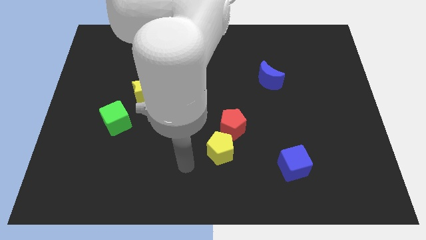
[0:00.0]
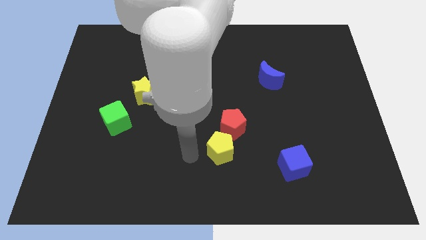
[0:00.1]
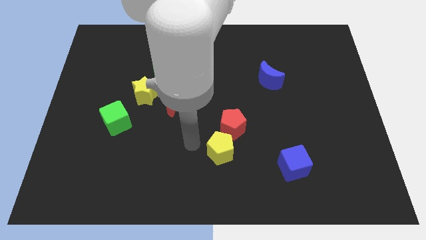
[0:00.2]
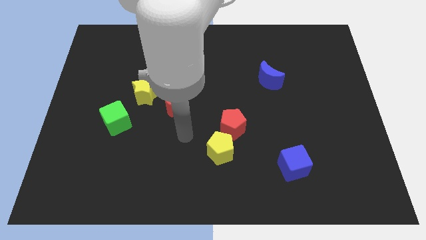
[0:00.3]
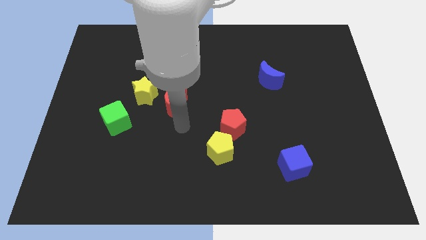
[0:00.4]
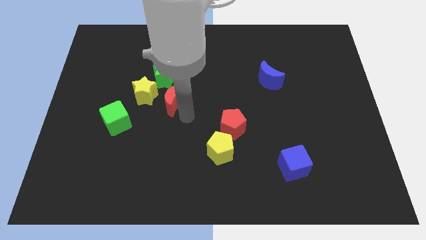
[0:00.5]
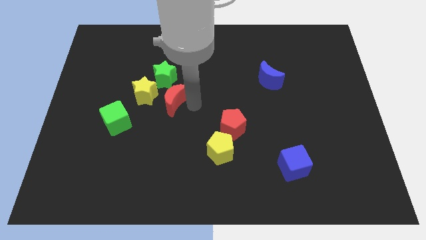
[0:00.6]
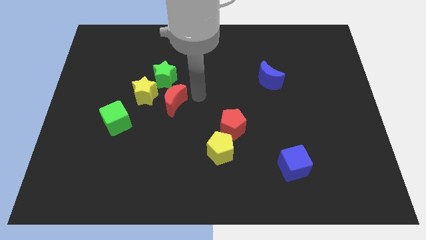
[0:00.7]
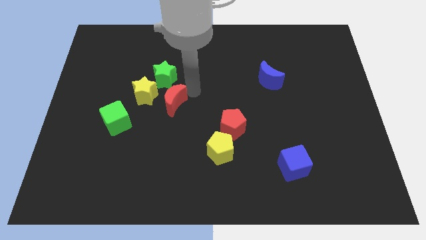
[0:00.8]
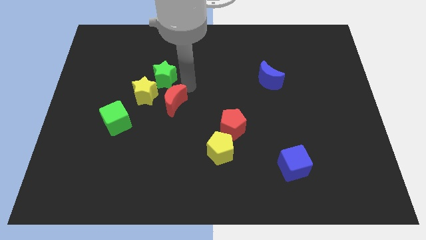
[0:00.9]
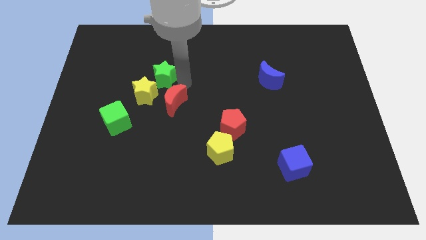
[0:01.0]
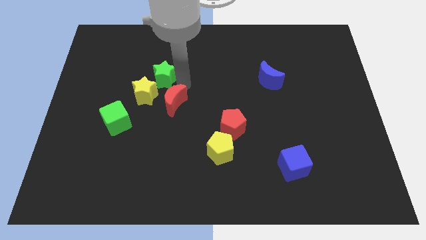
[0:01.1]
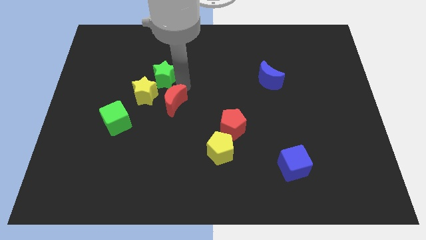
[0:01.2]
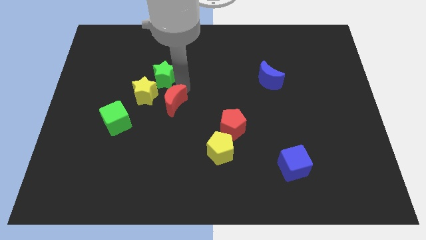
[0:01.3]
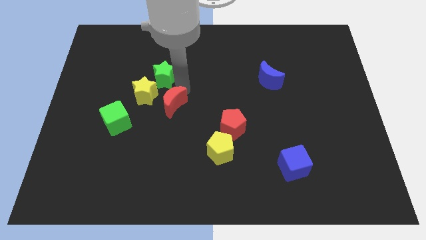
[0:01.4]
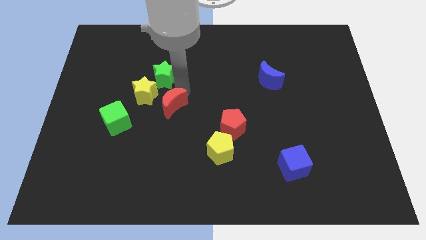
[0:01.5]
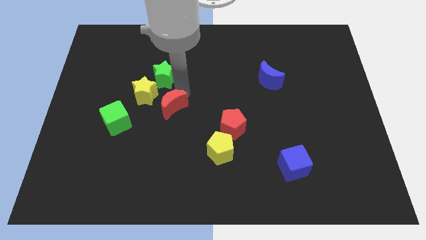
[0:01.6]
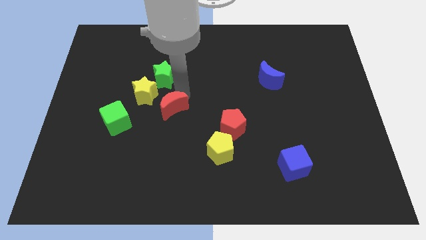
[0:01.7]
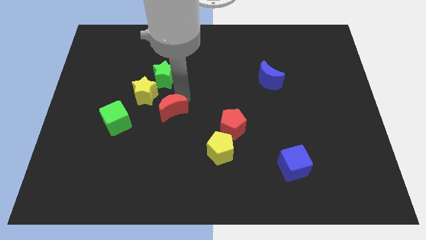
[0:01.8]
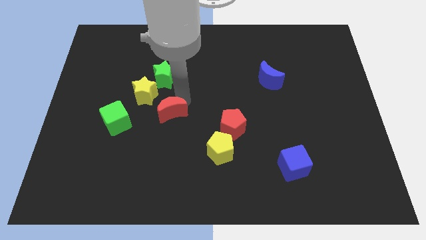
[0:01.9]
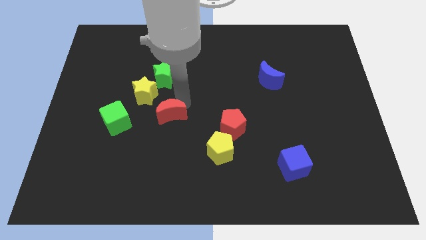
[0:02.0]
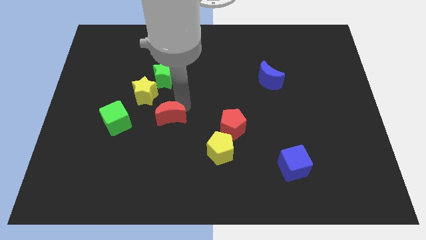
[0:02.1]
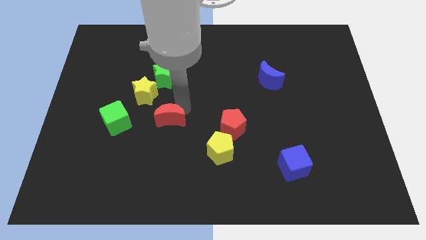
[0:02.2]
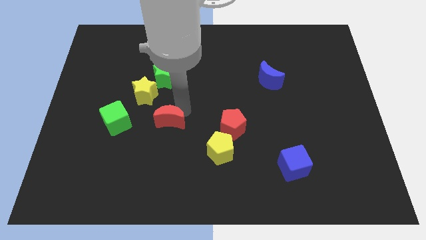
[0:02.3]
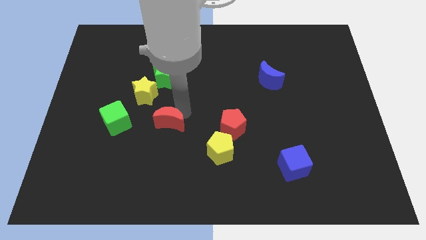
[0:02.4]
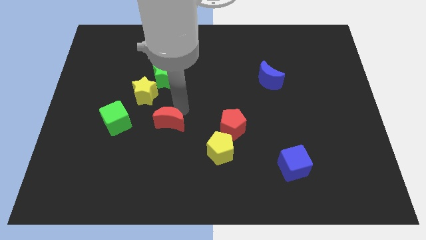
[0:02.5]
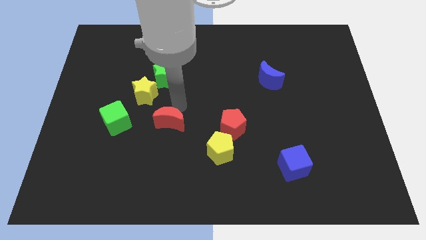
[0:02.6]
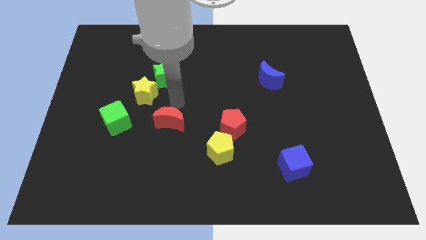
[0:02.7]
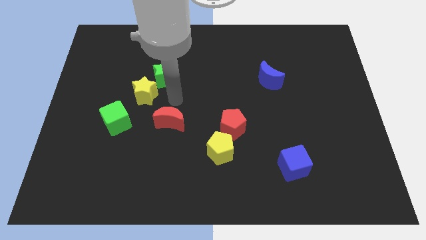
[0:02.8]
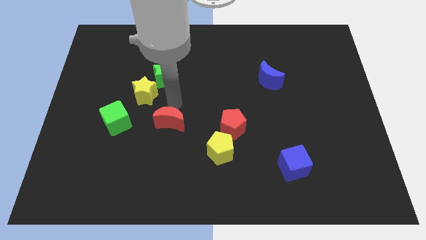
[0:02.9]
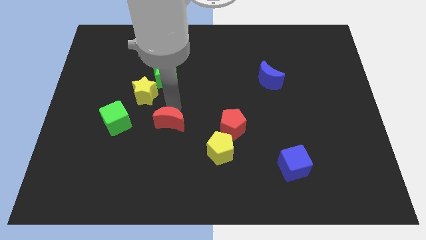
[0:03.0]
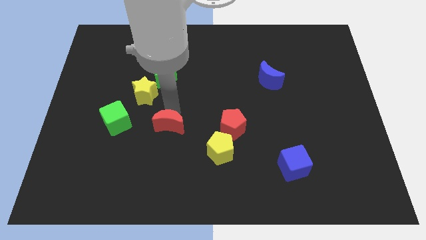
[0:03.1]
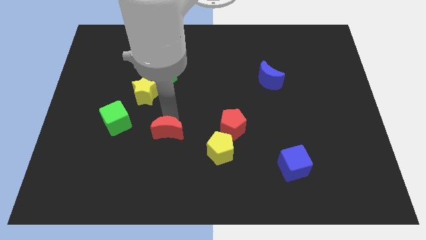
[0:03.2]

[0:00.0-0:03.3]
move the red moon downwards a bit

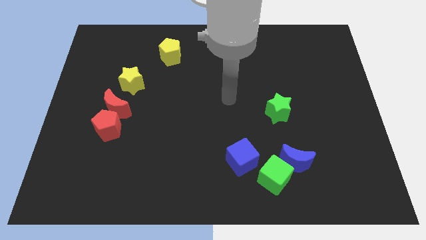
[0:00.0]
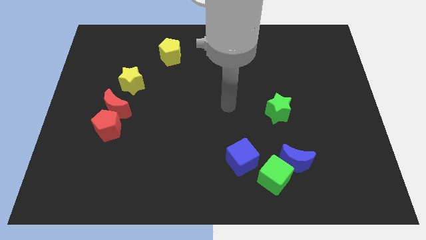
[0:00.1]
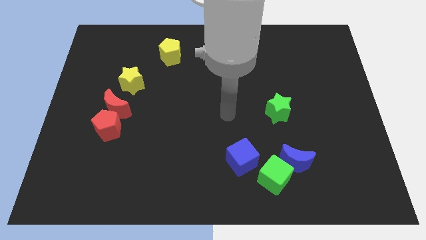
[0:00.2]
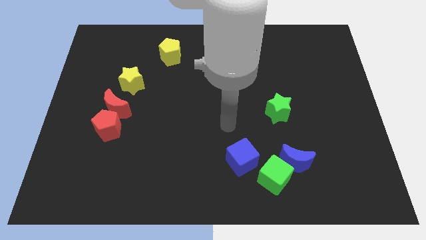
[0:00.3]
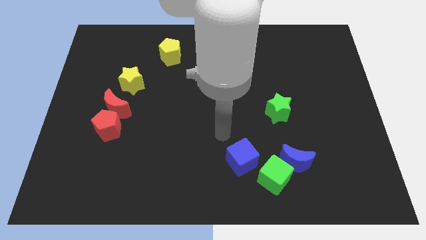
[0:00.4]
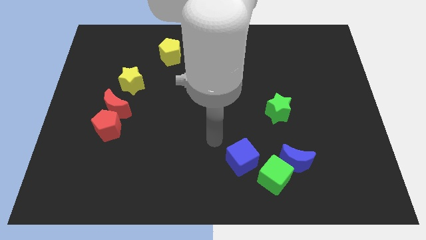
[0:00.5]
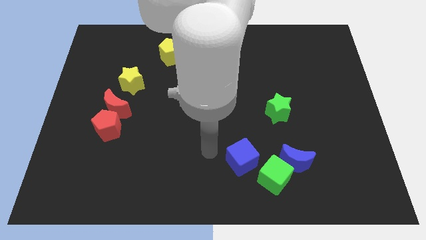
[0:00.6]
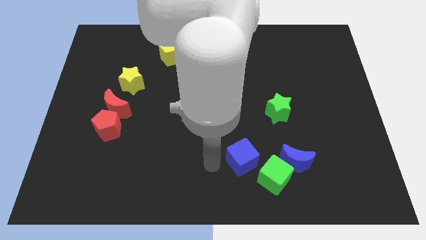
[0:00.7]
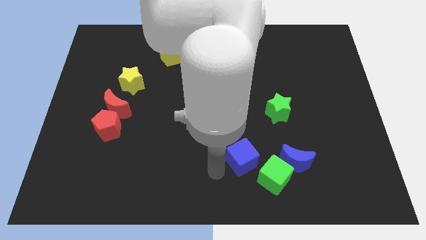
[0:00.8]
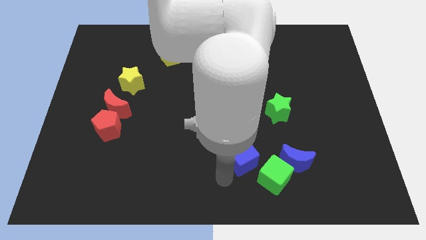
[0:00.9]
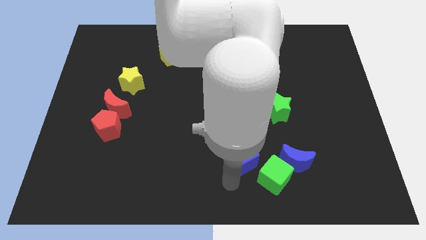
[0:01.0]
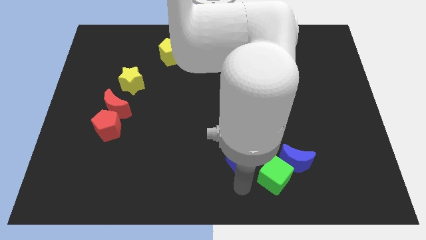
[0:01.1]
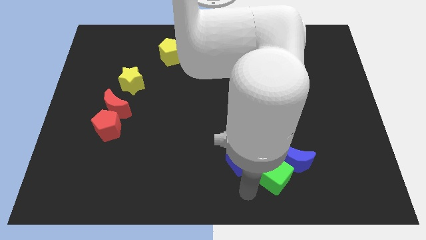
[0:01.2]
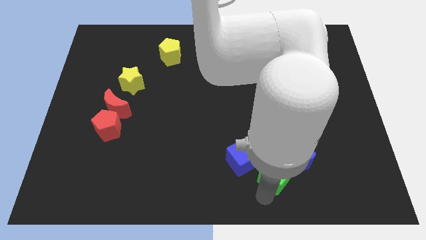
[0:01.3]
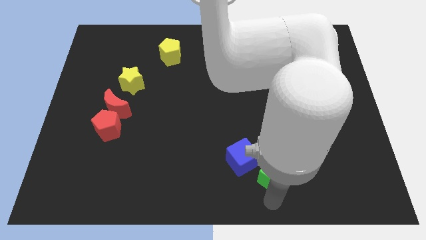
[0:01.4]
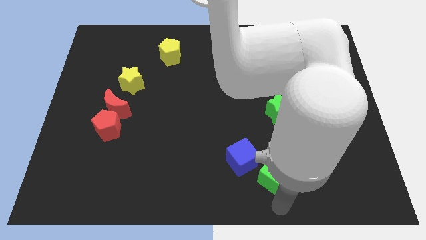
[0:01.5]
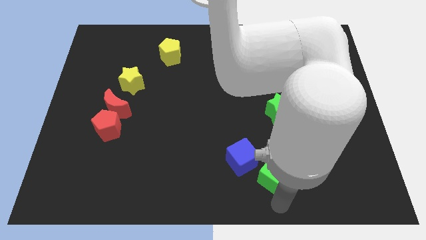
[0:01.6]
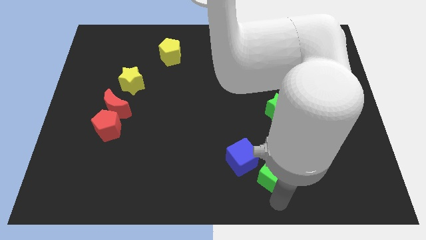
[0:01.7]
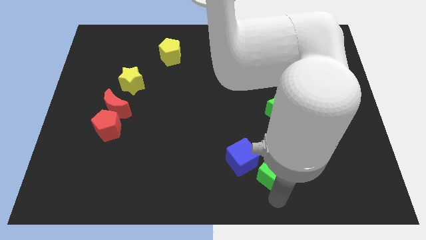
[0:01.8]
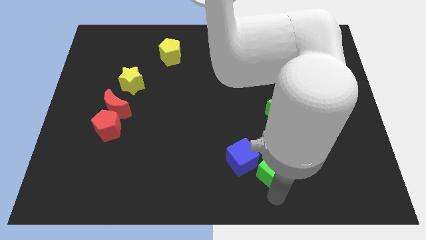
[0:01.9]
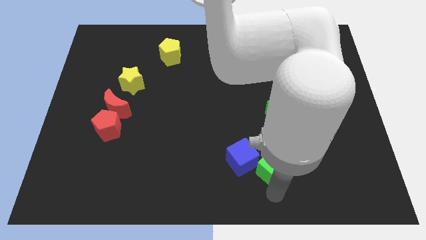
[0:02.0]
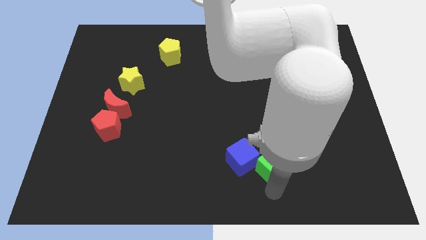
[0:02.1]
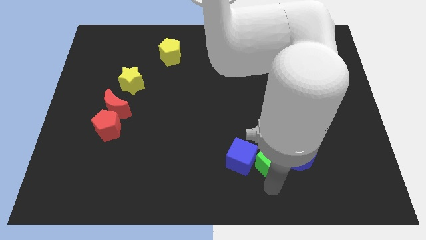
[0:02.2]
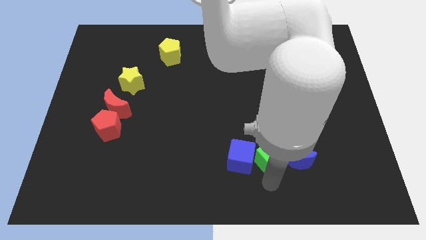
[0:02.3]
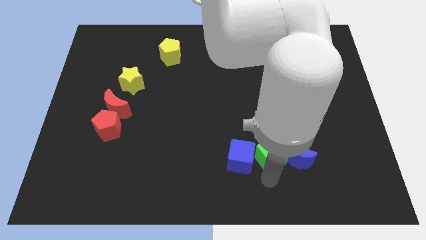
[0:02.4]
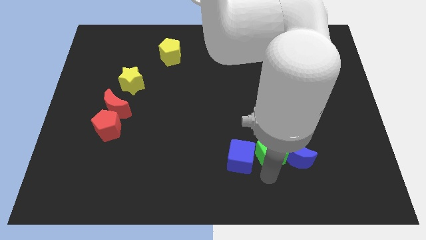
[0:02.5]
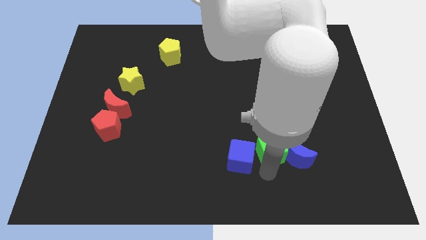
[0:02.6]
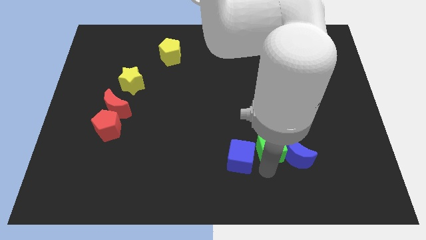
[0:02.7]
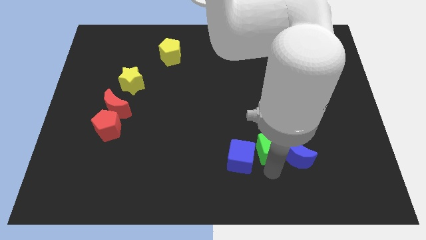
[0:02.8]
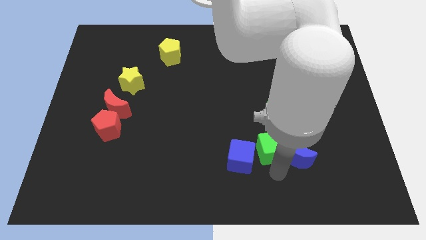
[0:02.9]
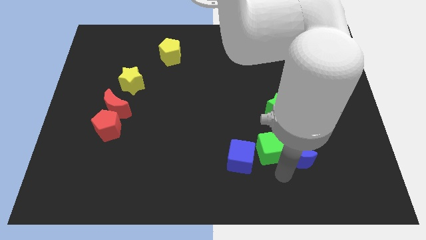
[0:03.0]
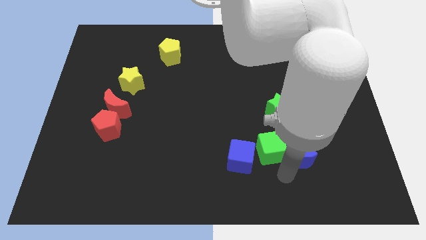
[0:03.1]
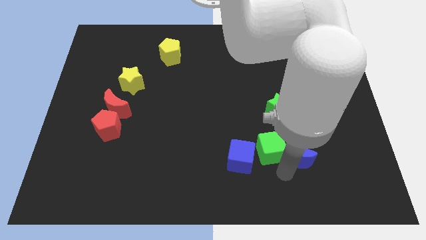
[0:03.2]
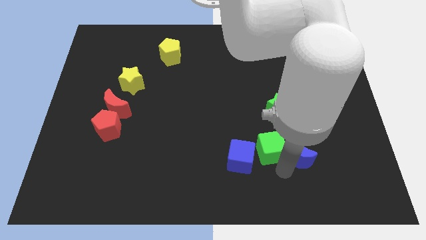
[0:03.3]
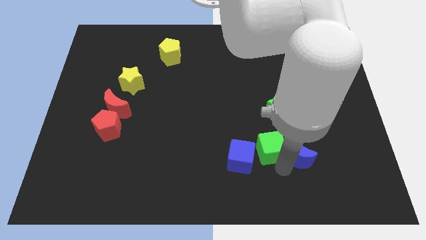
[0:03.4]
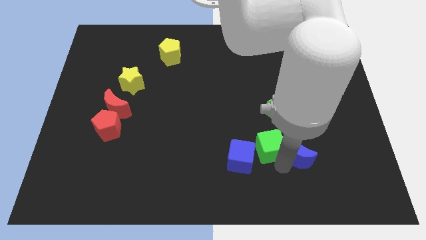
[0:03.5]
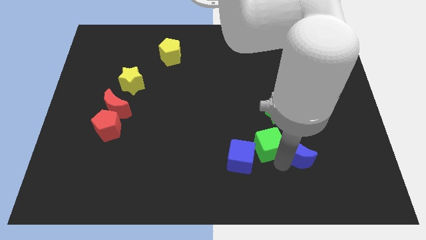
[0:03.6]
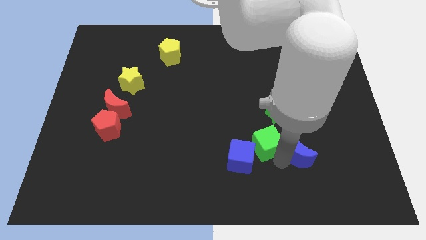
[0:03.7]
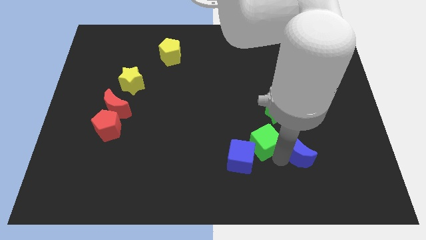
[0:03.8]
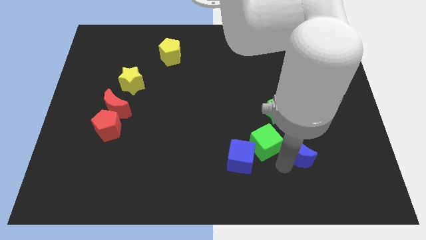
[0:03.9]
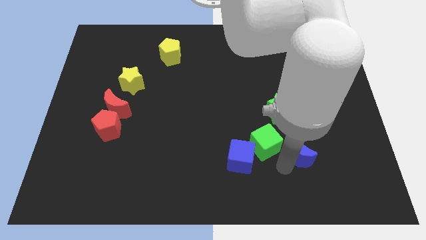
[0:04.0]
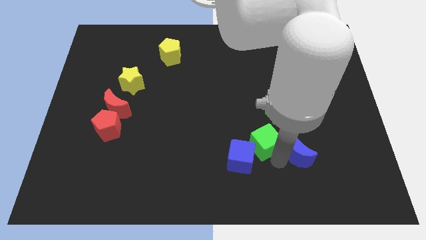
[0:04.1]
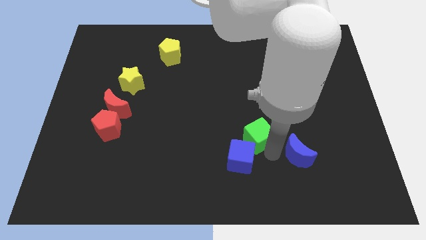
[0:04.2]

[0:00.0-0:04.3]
push the green cube a bit upwards and to the left

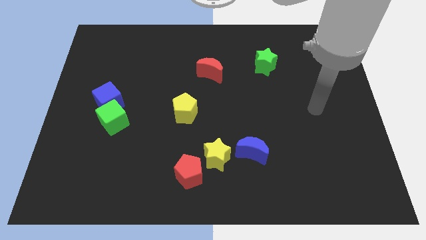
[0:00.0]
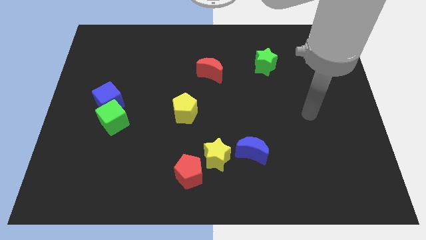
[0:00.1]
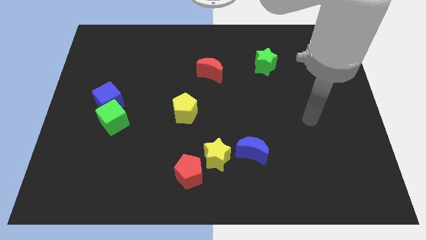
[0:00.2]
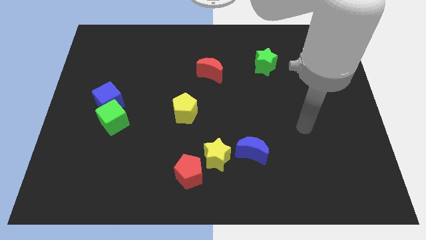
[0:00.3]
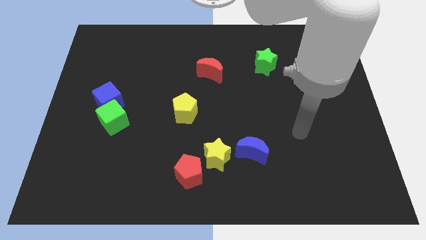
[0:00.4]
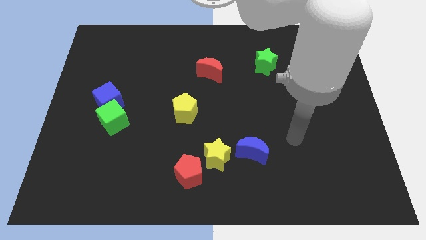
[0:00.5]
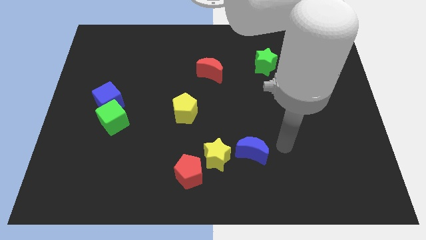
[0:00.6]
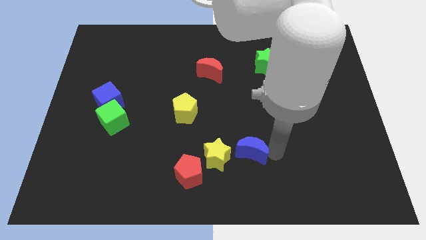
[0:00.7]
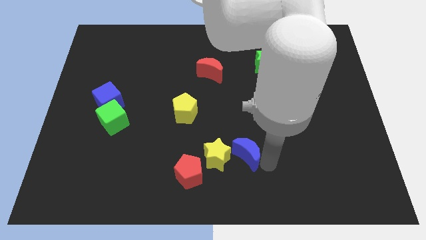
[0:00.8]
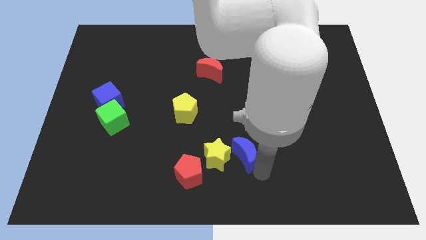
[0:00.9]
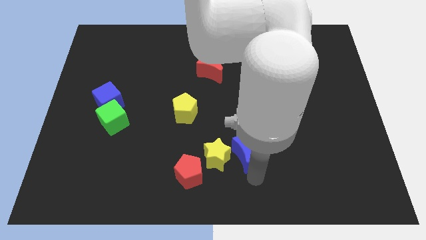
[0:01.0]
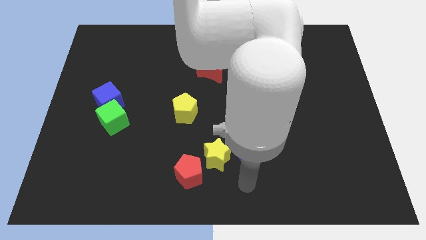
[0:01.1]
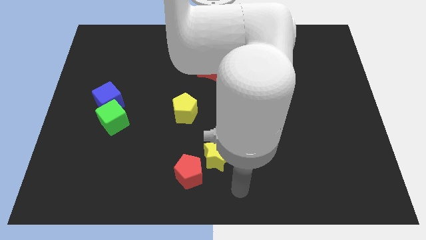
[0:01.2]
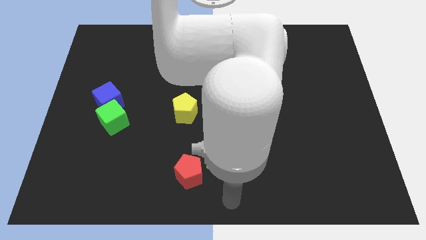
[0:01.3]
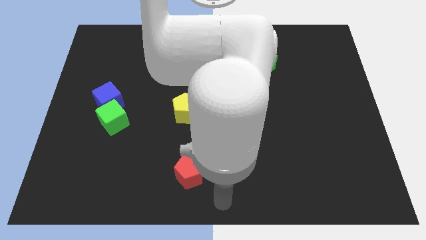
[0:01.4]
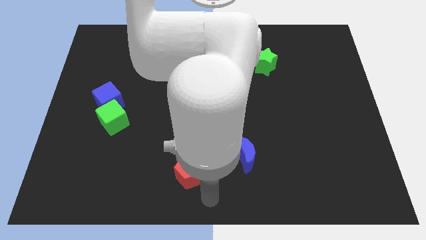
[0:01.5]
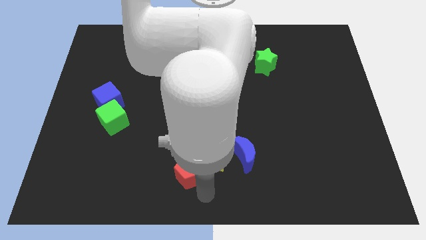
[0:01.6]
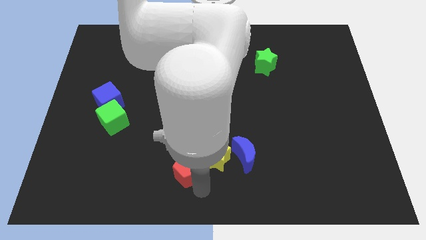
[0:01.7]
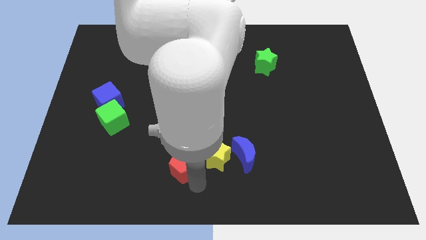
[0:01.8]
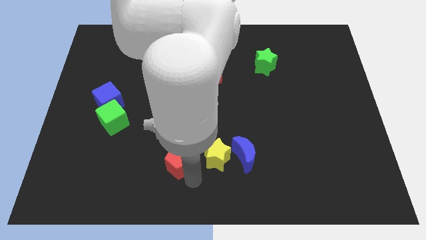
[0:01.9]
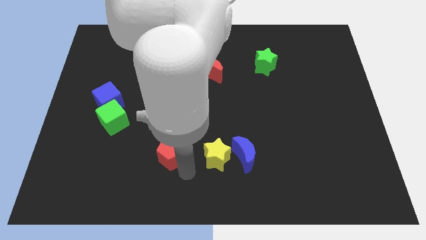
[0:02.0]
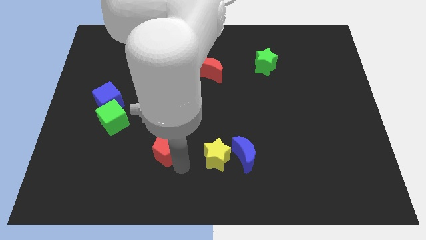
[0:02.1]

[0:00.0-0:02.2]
slightly move the red pentagon up and to the left
